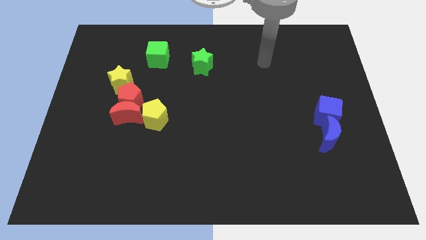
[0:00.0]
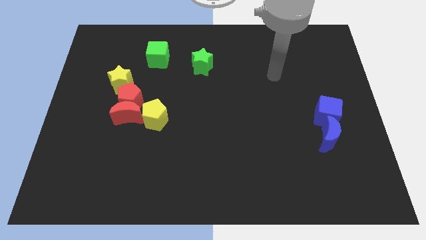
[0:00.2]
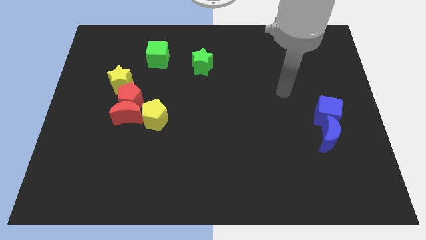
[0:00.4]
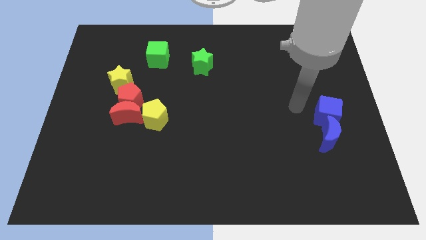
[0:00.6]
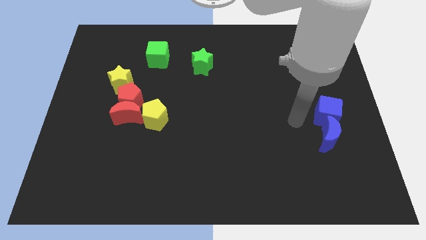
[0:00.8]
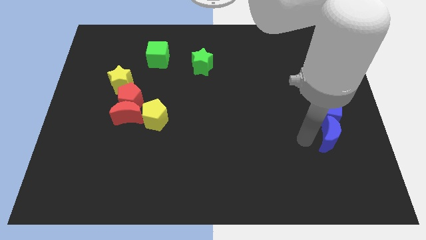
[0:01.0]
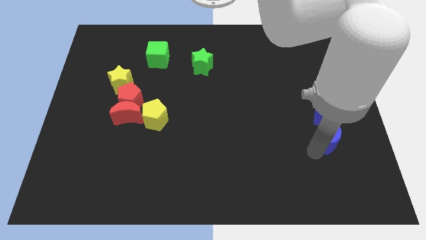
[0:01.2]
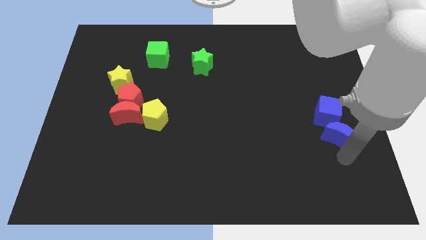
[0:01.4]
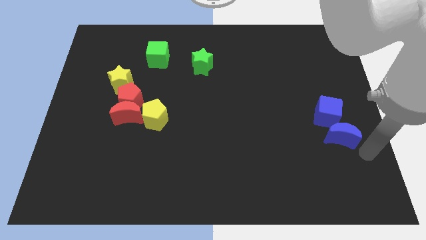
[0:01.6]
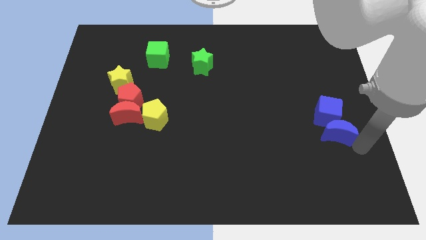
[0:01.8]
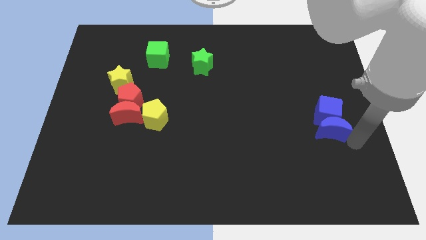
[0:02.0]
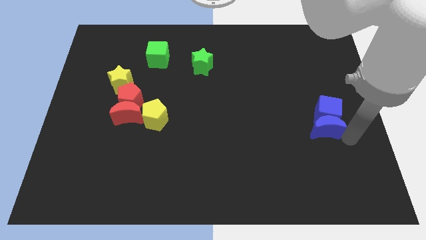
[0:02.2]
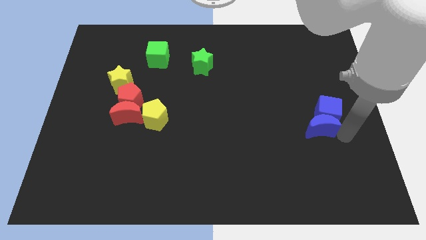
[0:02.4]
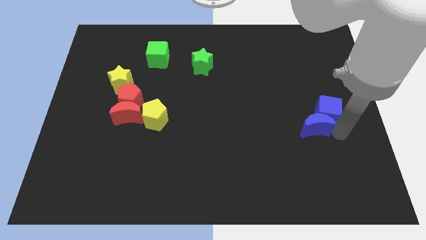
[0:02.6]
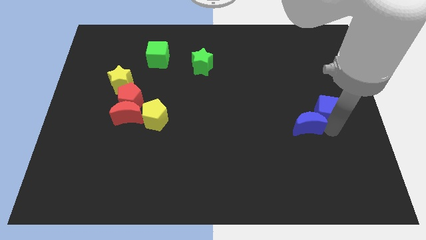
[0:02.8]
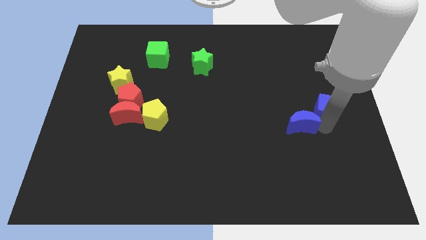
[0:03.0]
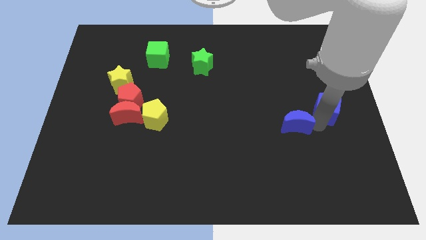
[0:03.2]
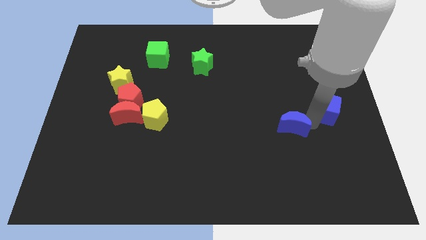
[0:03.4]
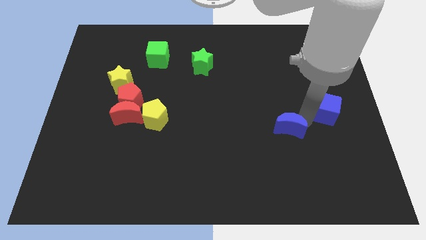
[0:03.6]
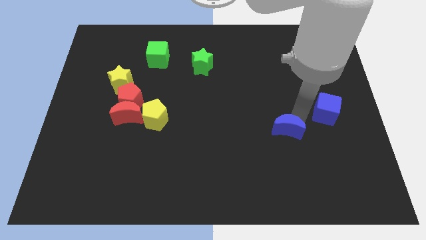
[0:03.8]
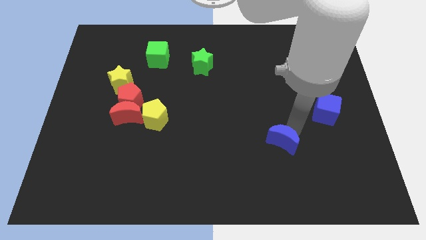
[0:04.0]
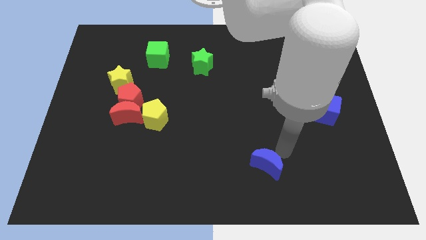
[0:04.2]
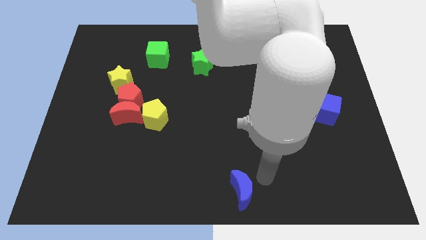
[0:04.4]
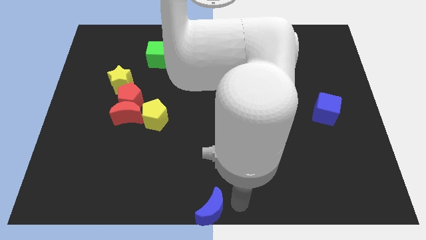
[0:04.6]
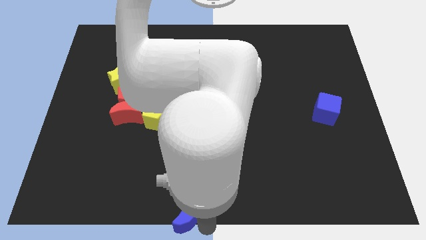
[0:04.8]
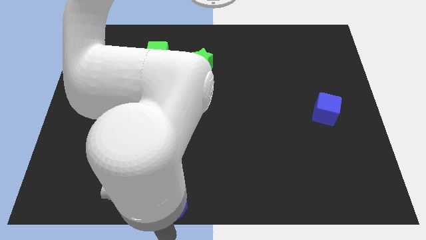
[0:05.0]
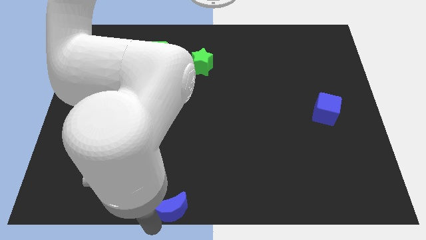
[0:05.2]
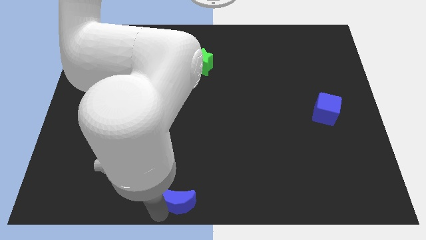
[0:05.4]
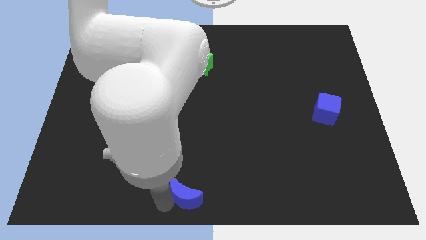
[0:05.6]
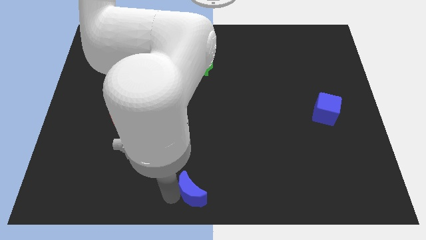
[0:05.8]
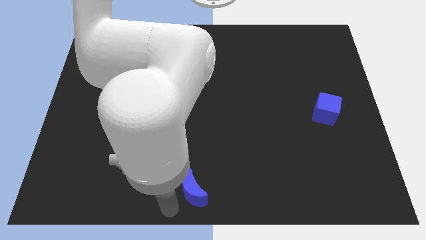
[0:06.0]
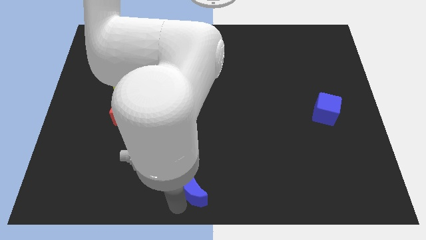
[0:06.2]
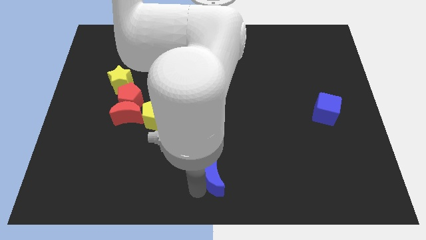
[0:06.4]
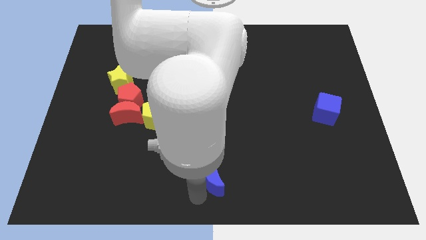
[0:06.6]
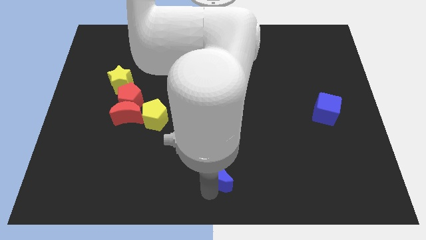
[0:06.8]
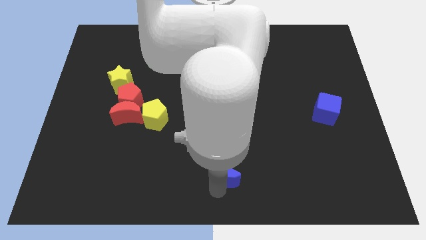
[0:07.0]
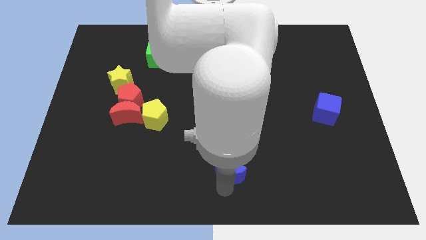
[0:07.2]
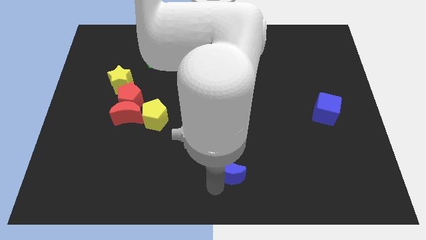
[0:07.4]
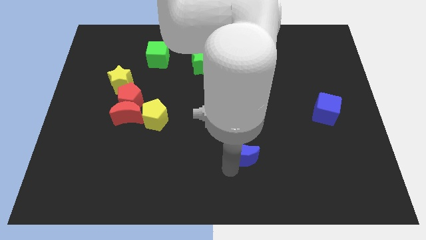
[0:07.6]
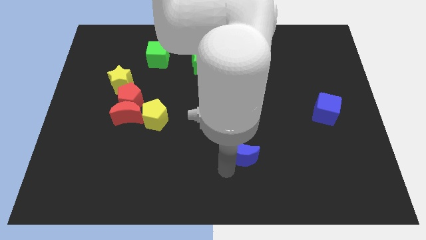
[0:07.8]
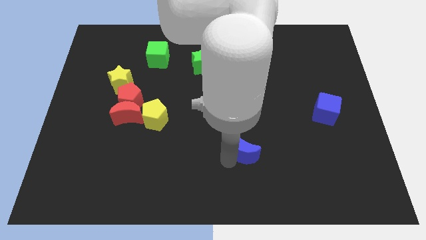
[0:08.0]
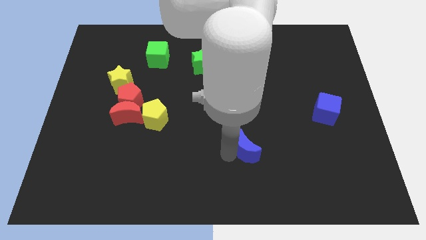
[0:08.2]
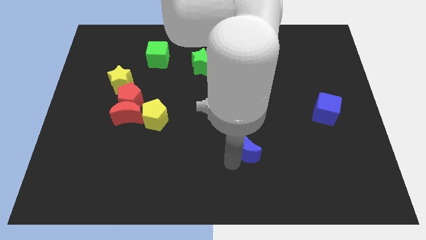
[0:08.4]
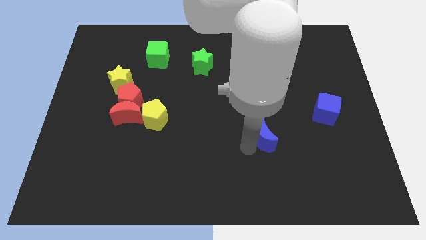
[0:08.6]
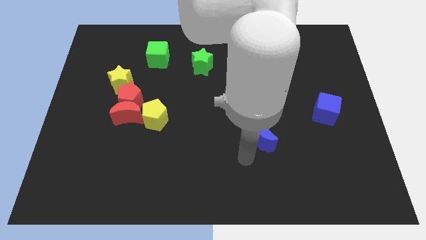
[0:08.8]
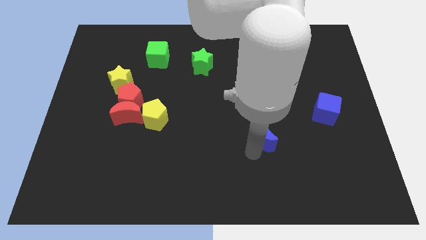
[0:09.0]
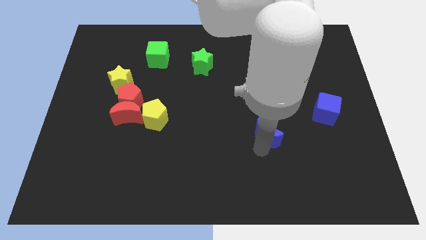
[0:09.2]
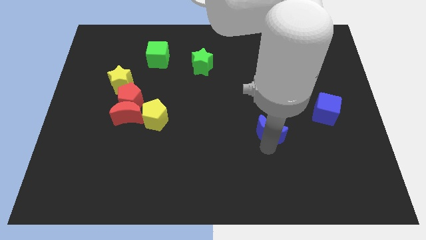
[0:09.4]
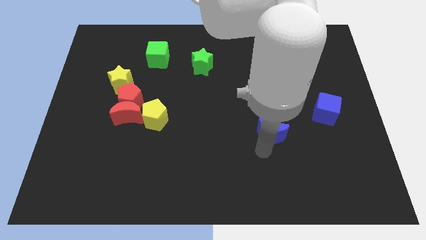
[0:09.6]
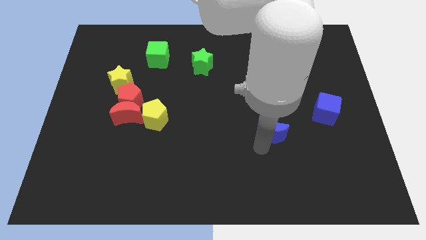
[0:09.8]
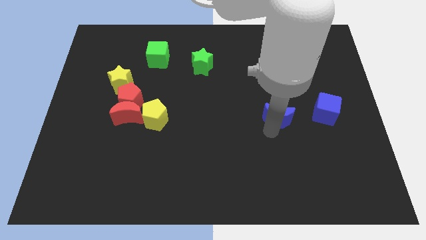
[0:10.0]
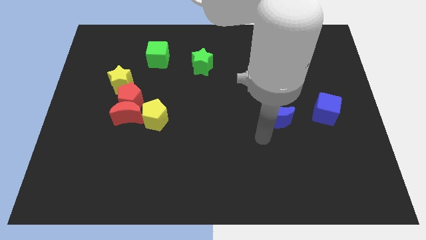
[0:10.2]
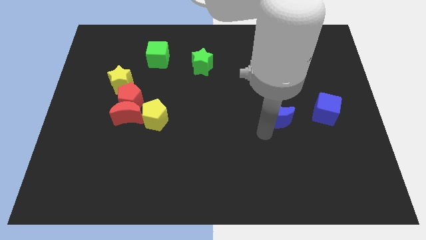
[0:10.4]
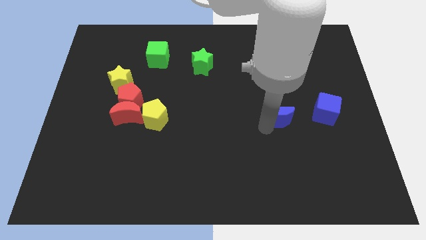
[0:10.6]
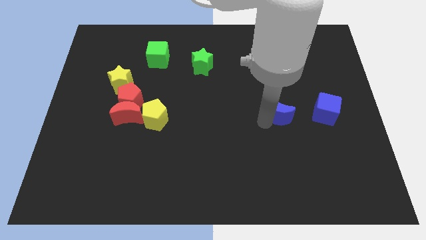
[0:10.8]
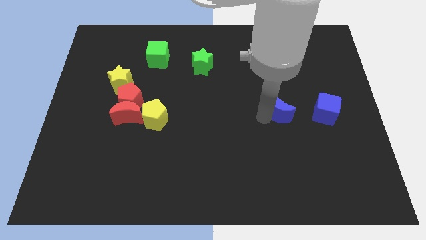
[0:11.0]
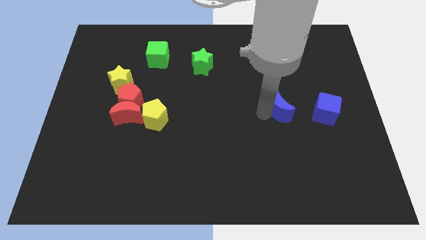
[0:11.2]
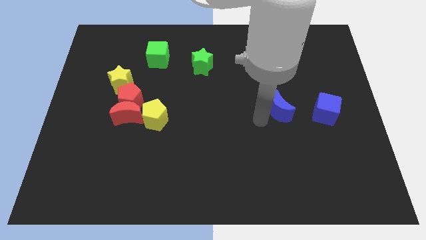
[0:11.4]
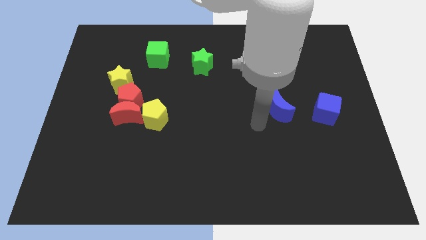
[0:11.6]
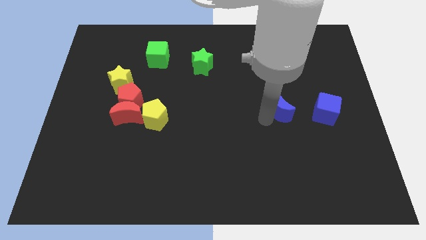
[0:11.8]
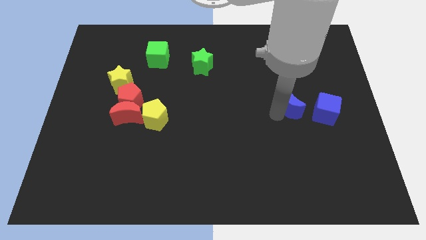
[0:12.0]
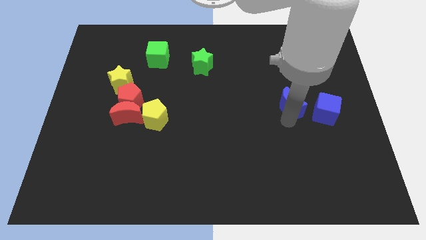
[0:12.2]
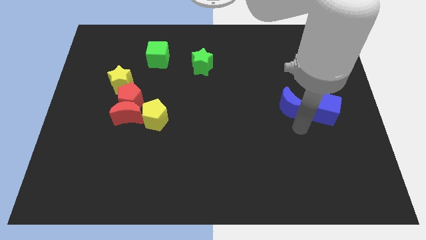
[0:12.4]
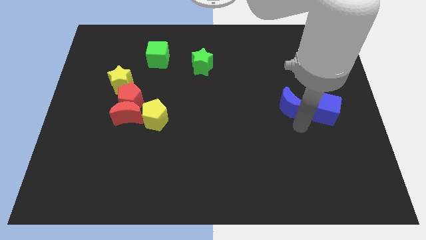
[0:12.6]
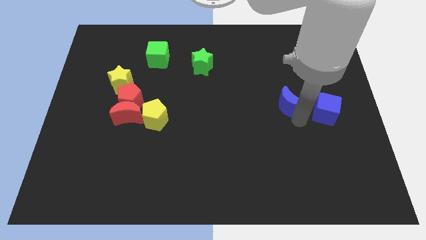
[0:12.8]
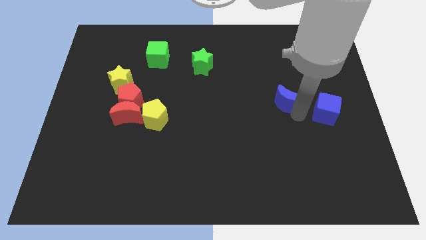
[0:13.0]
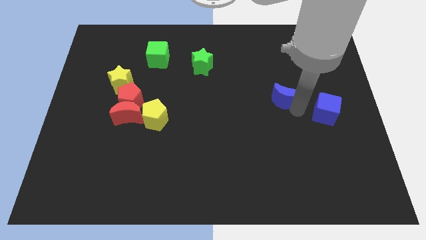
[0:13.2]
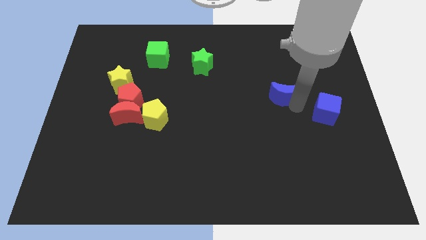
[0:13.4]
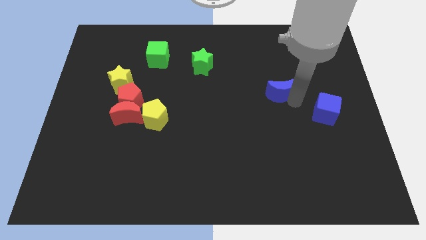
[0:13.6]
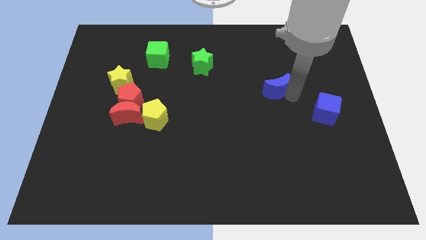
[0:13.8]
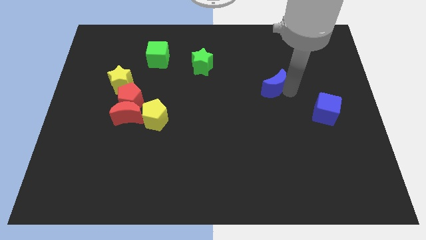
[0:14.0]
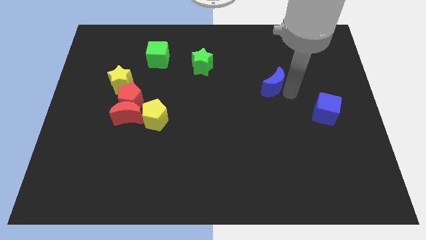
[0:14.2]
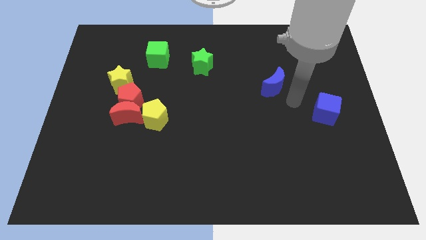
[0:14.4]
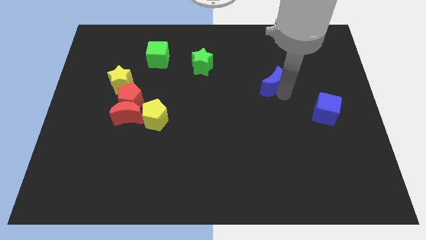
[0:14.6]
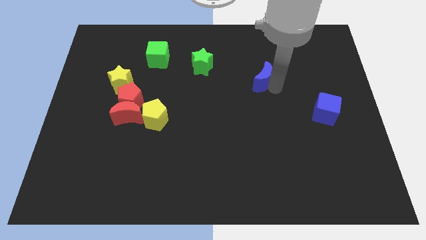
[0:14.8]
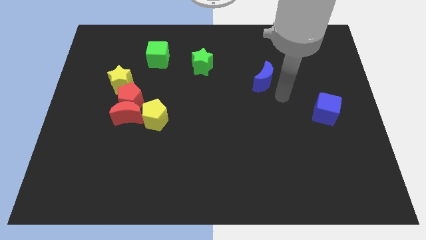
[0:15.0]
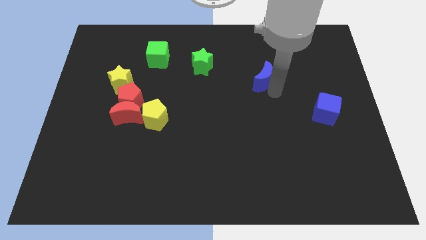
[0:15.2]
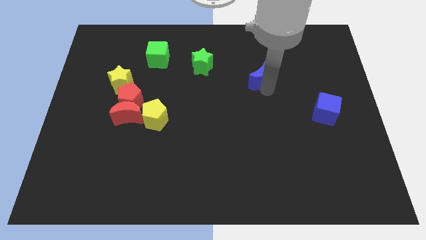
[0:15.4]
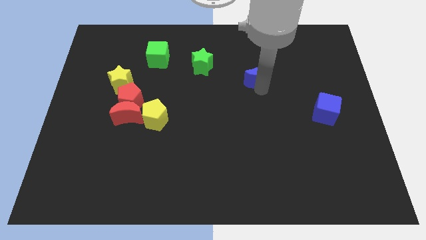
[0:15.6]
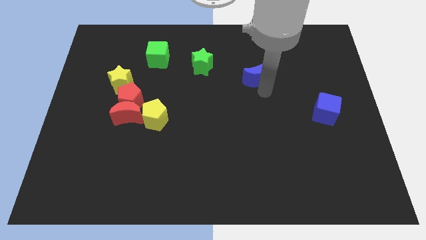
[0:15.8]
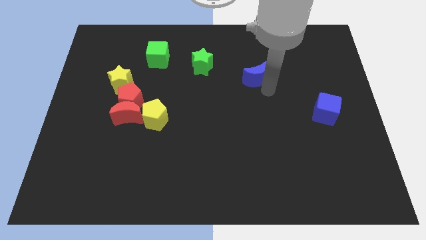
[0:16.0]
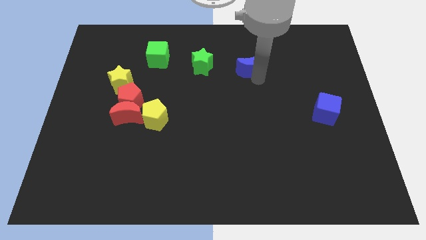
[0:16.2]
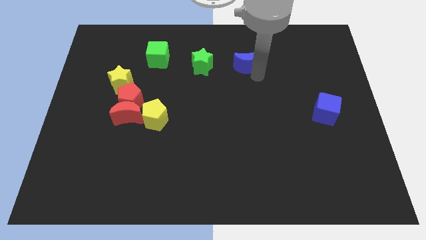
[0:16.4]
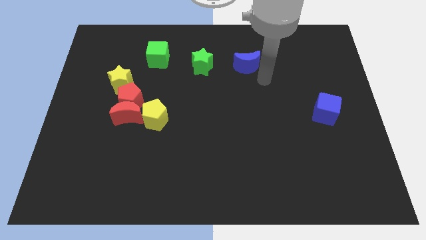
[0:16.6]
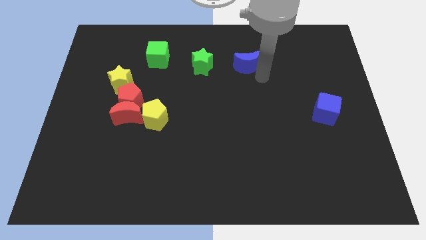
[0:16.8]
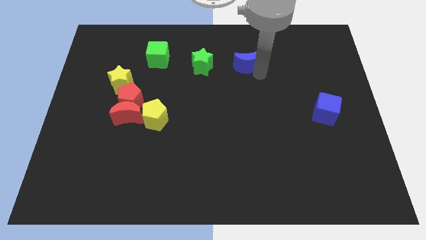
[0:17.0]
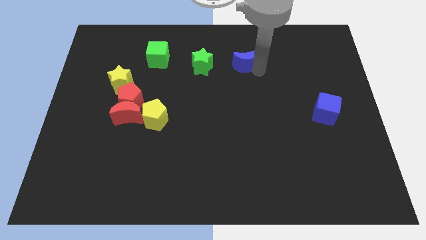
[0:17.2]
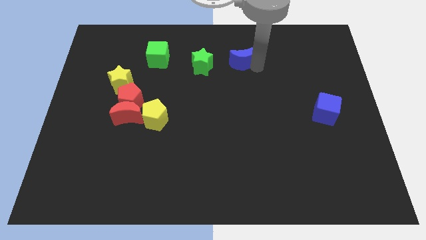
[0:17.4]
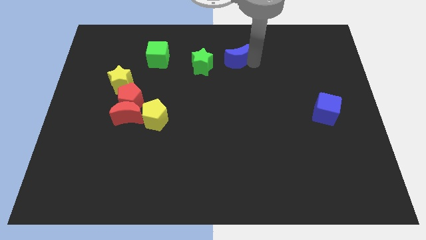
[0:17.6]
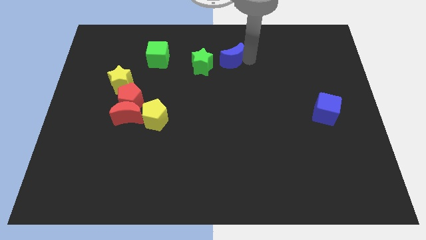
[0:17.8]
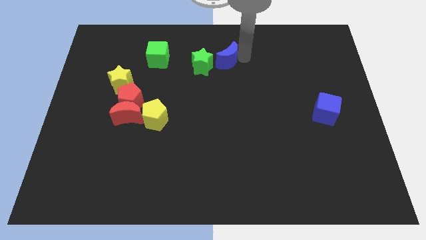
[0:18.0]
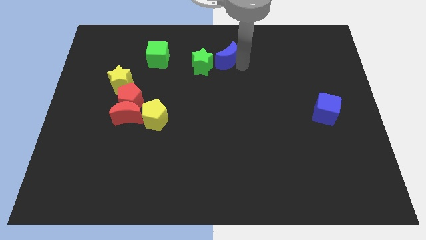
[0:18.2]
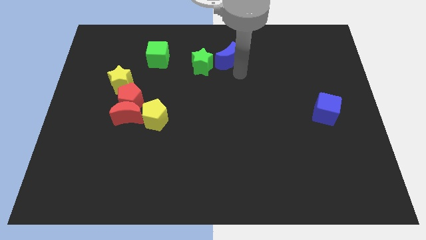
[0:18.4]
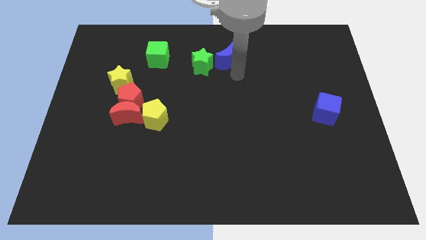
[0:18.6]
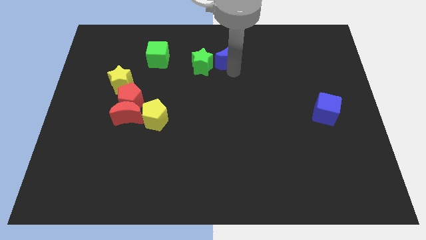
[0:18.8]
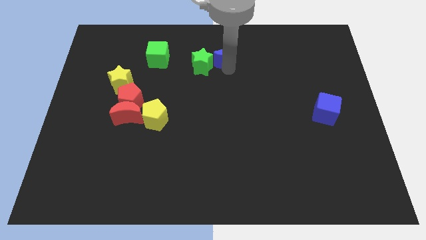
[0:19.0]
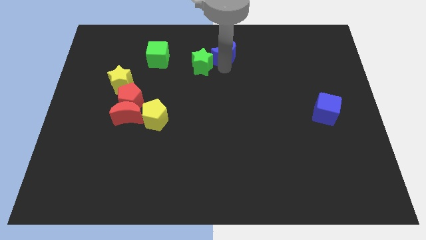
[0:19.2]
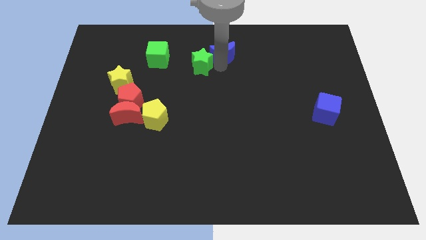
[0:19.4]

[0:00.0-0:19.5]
slide the blue moon to the top side
